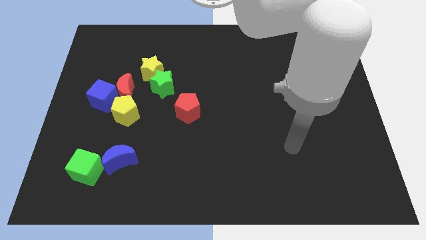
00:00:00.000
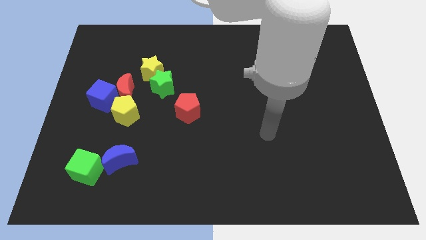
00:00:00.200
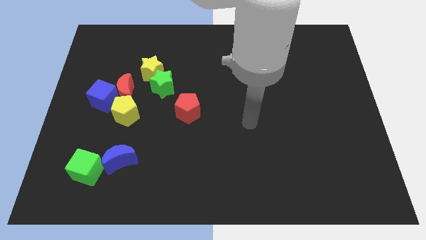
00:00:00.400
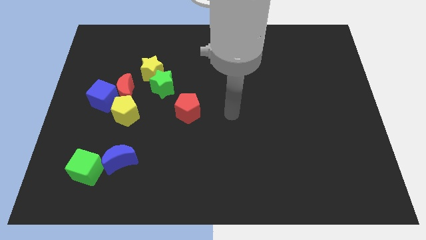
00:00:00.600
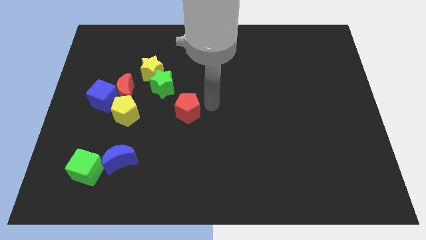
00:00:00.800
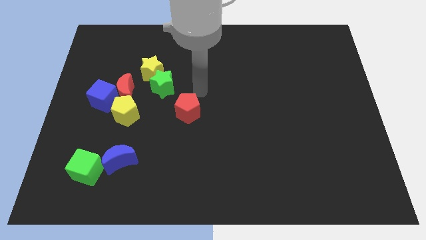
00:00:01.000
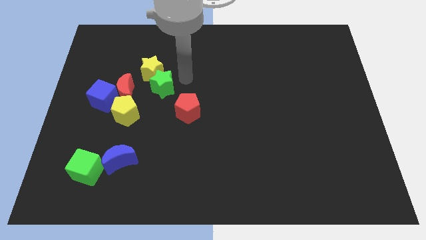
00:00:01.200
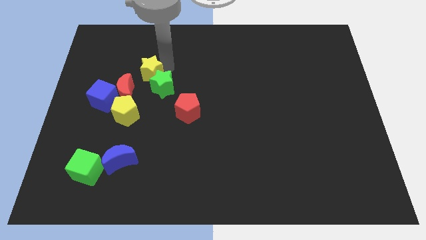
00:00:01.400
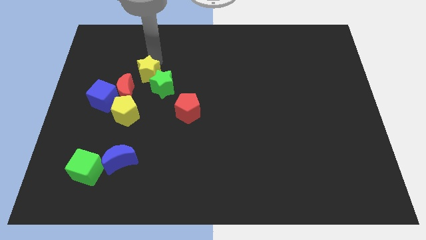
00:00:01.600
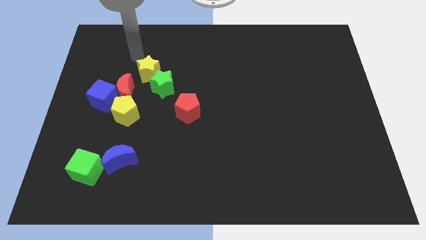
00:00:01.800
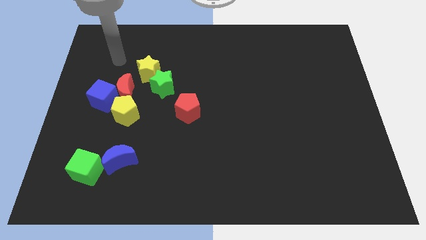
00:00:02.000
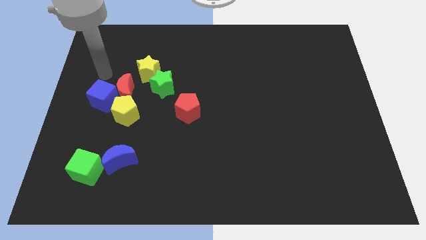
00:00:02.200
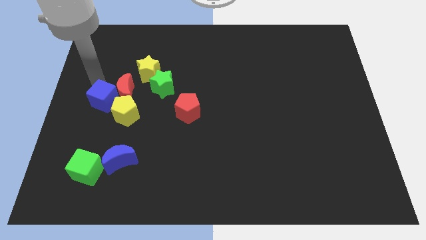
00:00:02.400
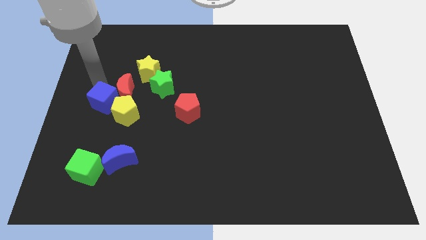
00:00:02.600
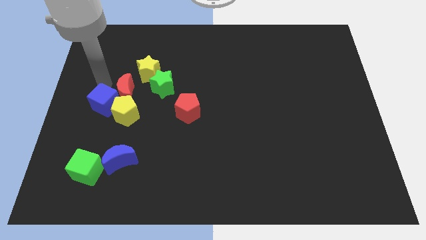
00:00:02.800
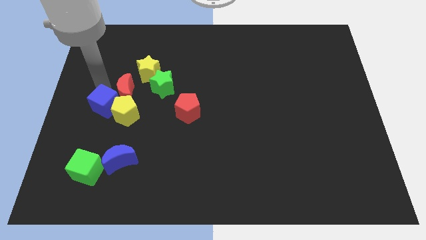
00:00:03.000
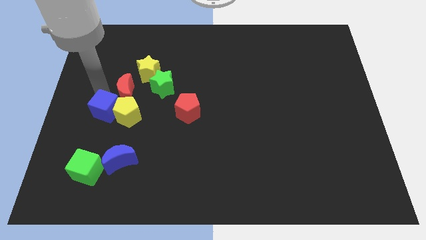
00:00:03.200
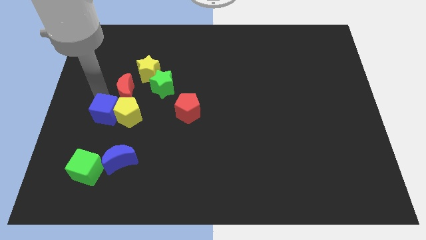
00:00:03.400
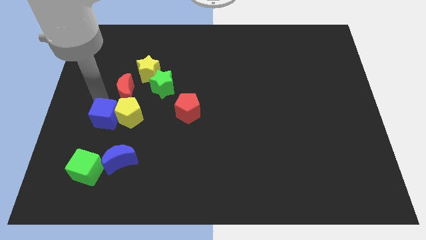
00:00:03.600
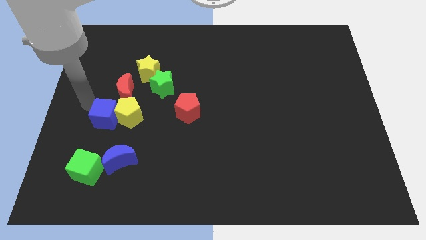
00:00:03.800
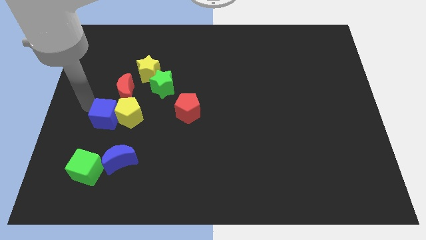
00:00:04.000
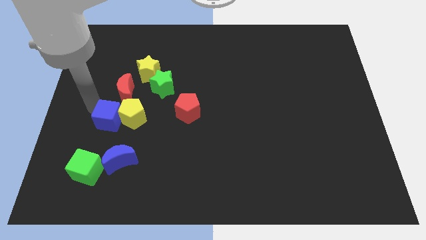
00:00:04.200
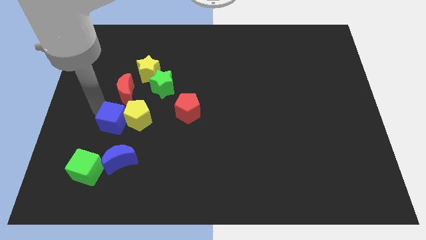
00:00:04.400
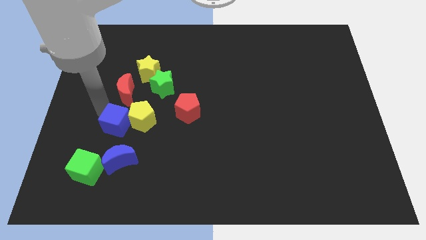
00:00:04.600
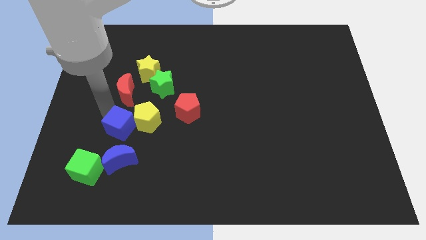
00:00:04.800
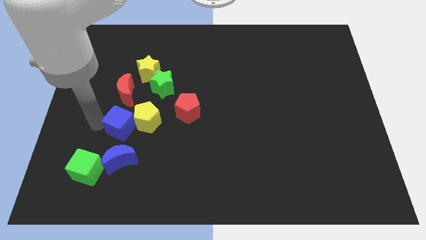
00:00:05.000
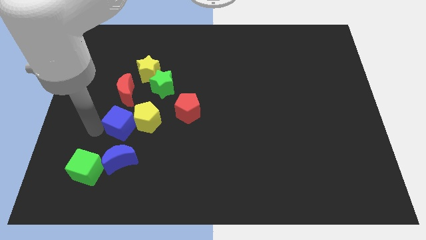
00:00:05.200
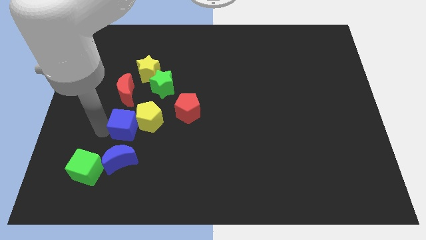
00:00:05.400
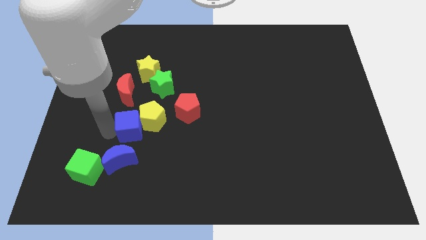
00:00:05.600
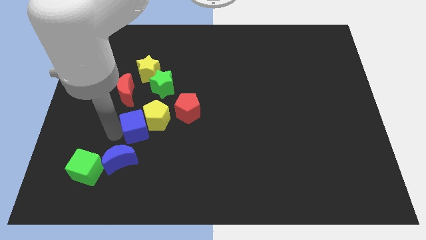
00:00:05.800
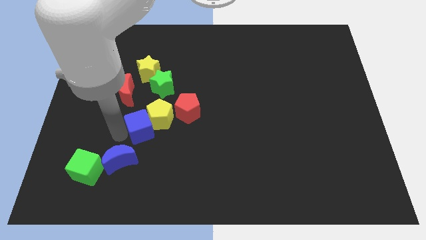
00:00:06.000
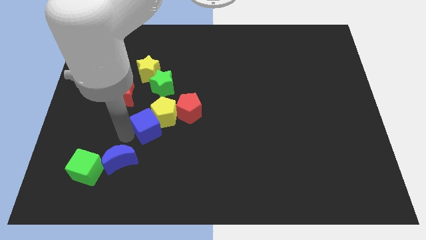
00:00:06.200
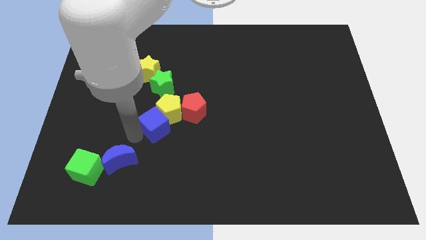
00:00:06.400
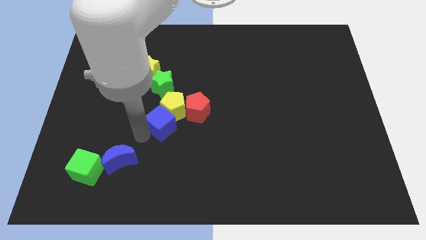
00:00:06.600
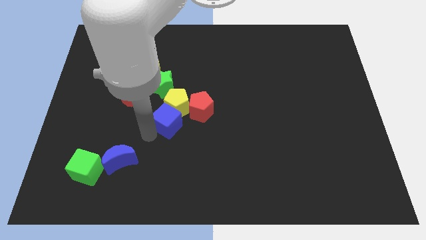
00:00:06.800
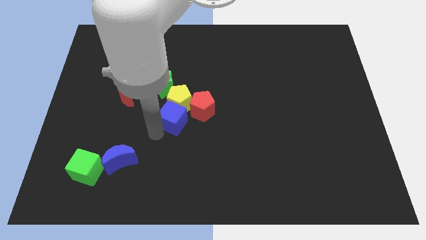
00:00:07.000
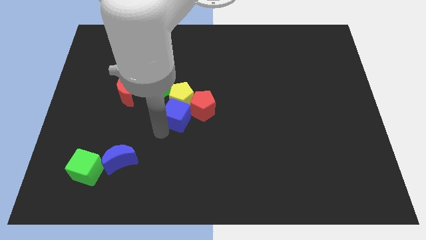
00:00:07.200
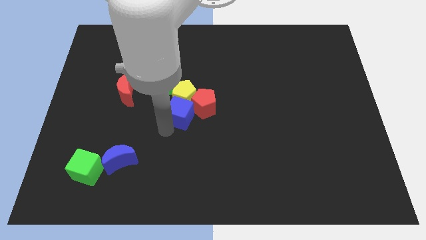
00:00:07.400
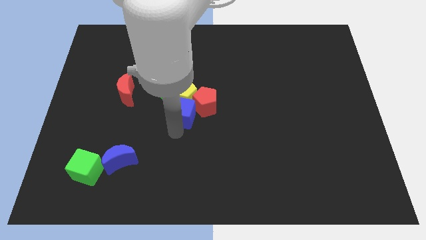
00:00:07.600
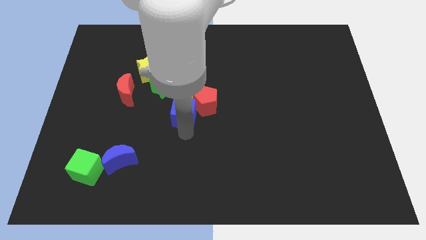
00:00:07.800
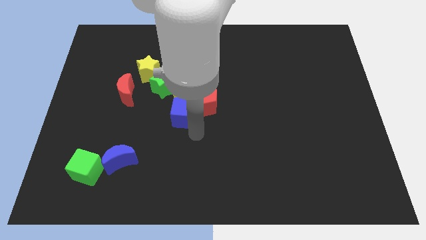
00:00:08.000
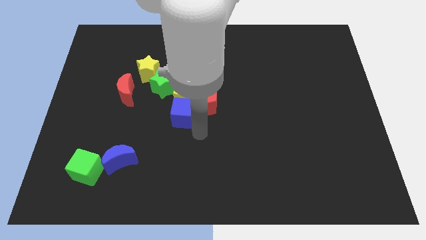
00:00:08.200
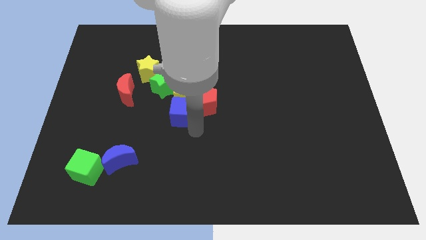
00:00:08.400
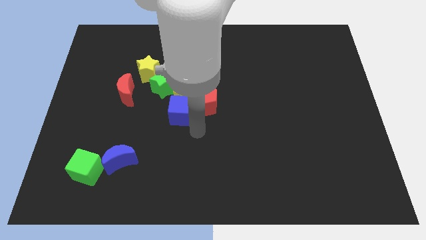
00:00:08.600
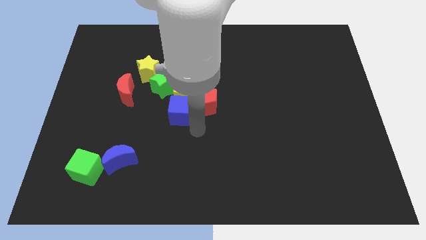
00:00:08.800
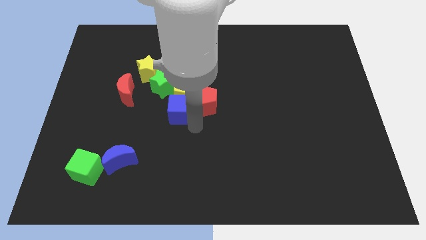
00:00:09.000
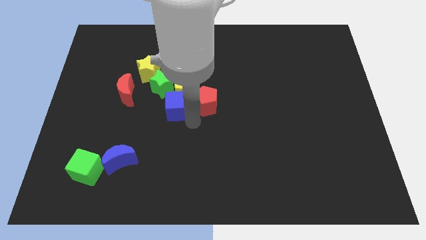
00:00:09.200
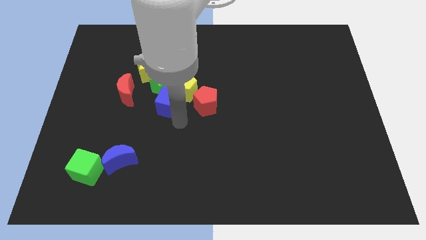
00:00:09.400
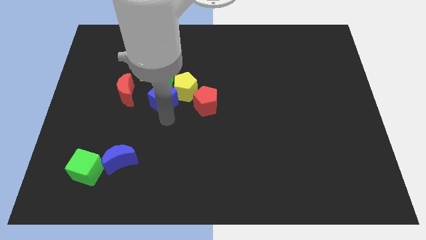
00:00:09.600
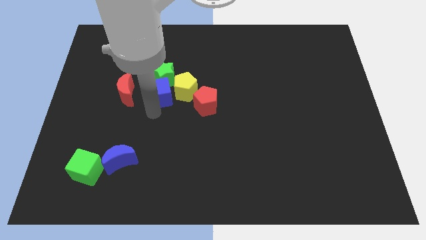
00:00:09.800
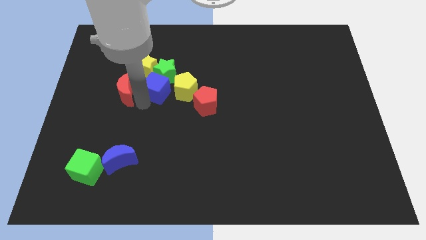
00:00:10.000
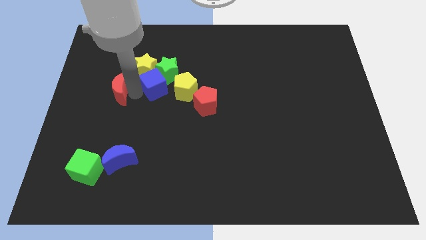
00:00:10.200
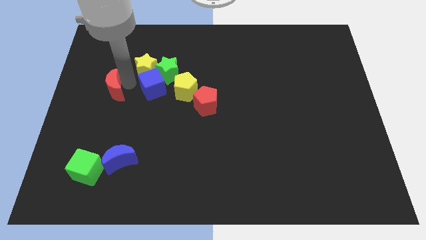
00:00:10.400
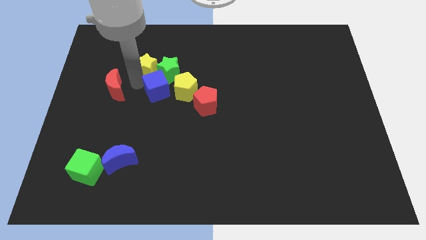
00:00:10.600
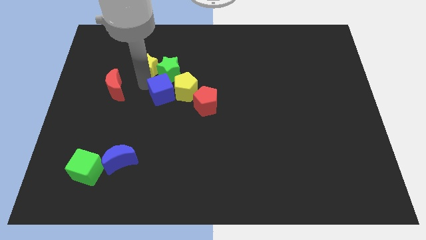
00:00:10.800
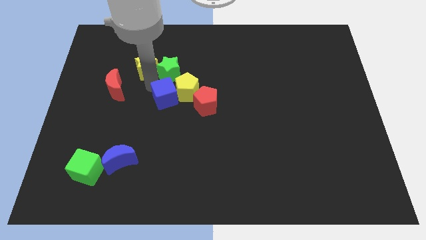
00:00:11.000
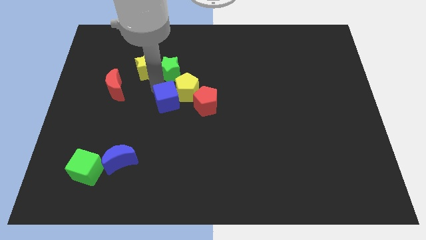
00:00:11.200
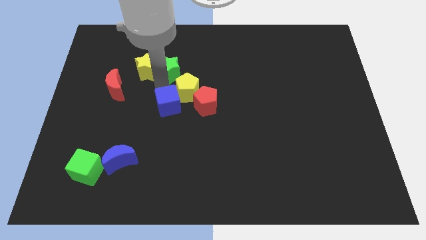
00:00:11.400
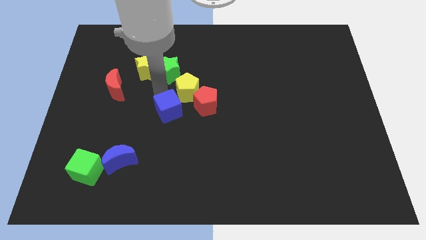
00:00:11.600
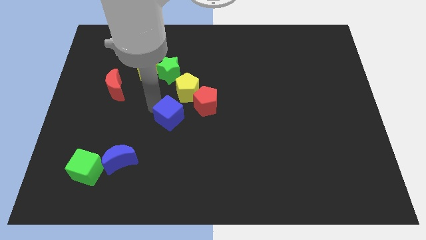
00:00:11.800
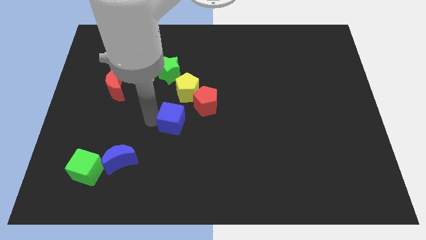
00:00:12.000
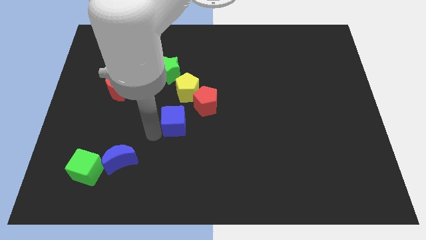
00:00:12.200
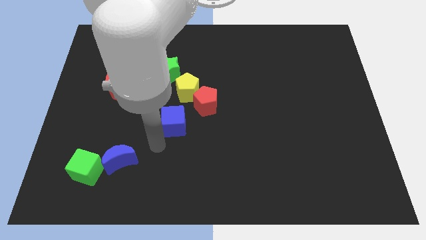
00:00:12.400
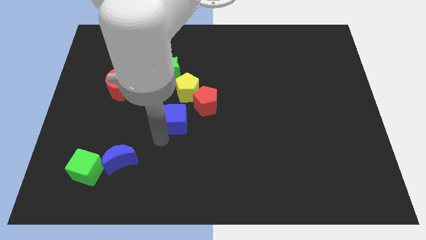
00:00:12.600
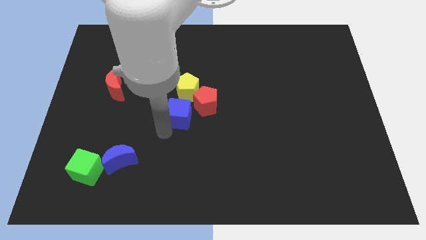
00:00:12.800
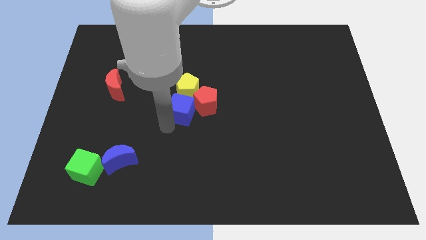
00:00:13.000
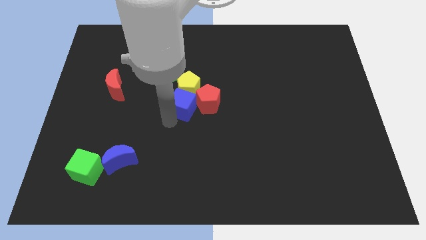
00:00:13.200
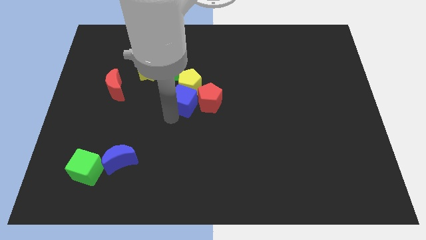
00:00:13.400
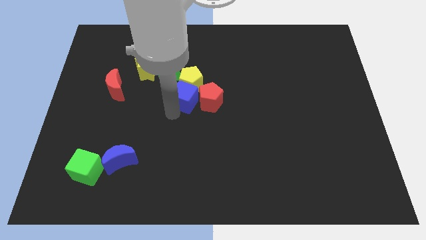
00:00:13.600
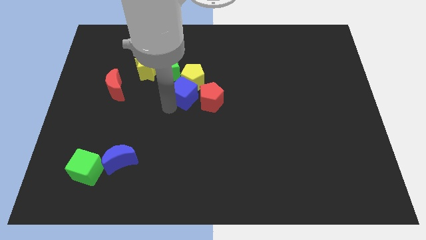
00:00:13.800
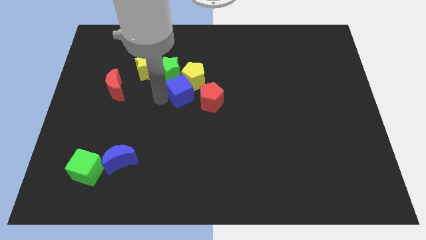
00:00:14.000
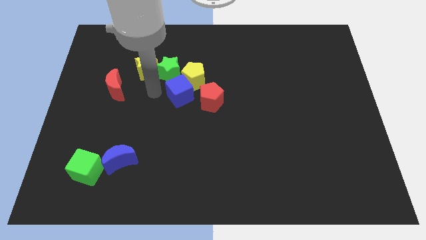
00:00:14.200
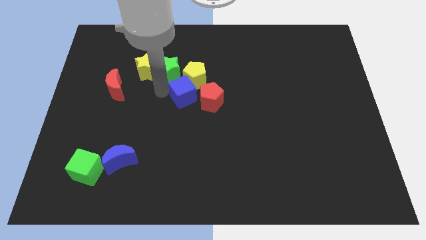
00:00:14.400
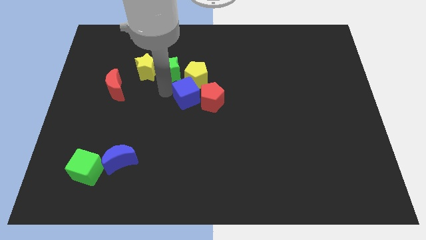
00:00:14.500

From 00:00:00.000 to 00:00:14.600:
push the blue cube right

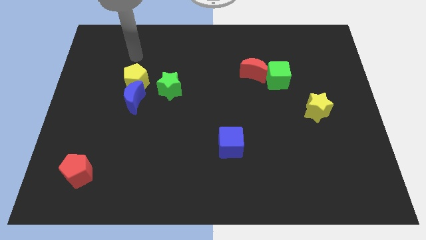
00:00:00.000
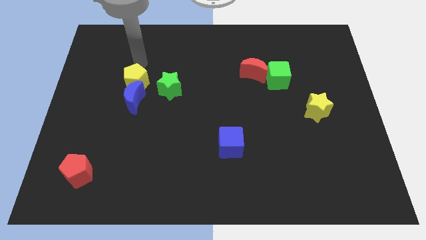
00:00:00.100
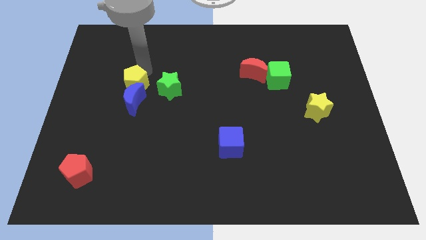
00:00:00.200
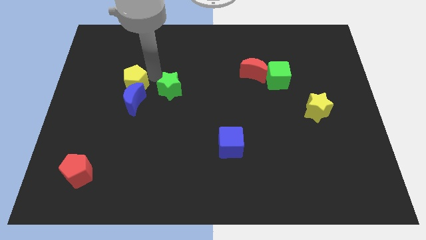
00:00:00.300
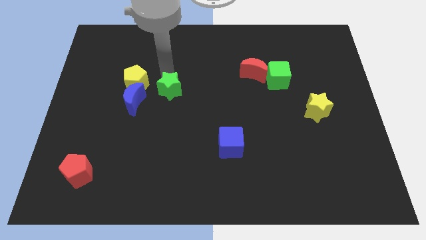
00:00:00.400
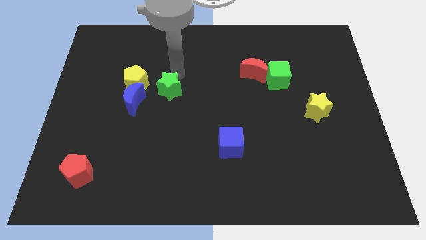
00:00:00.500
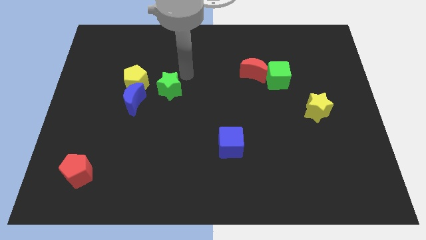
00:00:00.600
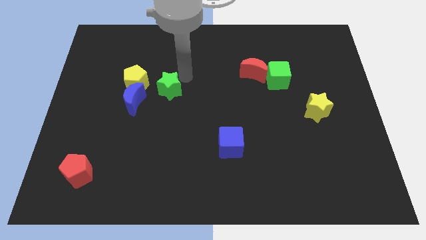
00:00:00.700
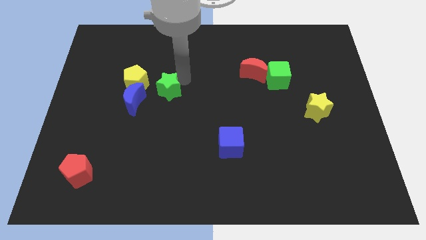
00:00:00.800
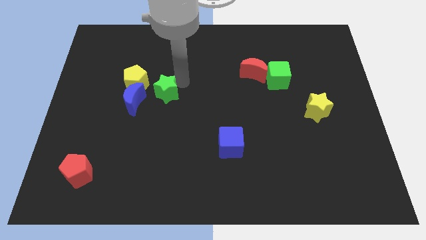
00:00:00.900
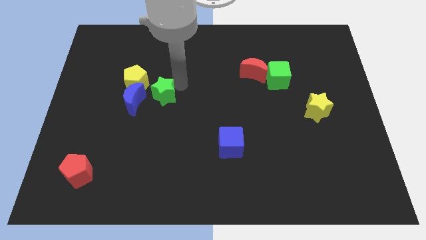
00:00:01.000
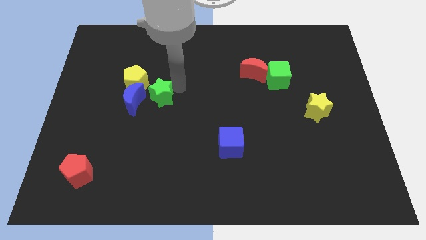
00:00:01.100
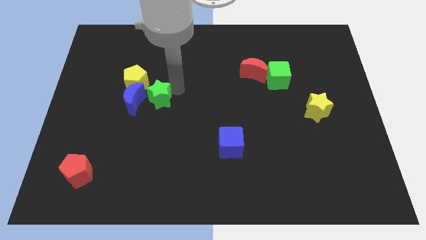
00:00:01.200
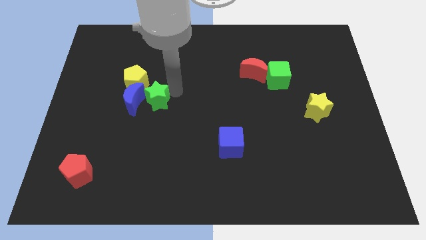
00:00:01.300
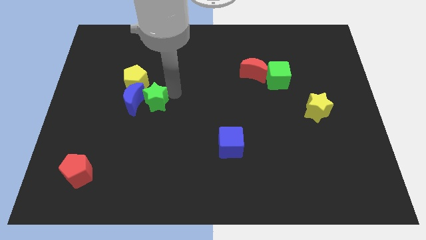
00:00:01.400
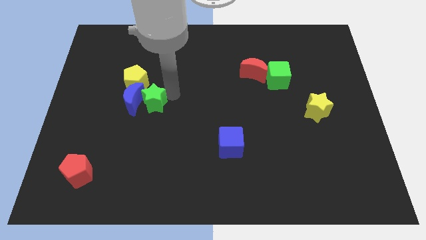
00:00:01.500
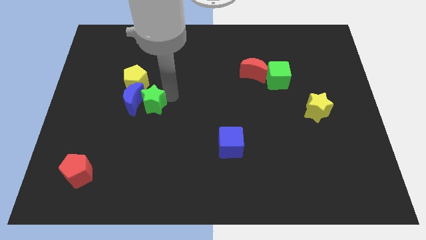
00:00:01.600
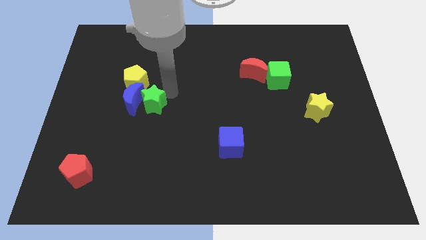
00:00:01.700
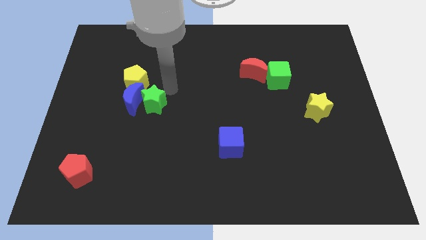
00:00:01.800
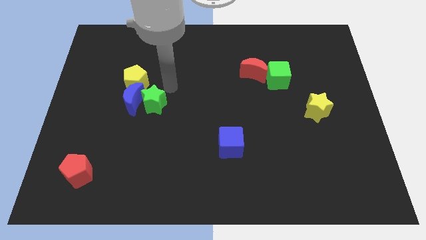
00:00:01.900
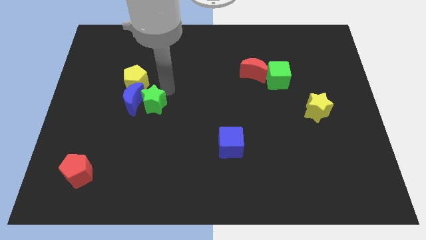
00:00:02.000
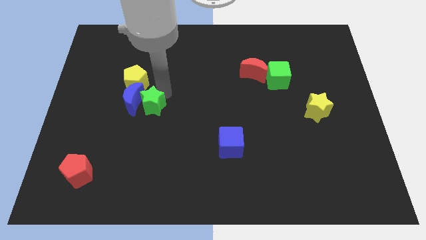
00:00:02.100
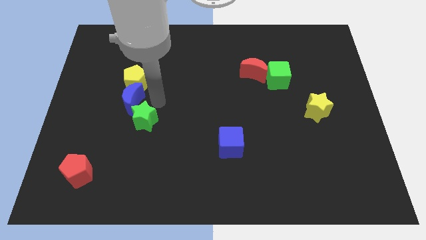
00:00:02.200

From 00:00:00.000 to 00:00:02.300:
slightly slide the green star down and to the left diagonally
